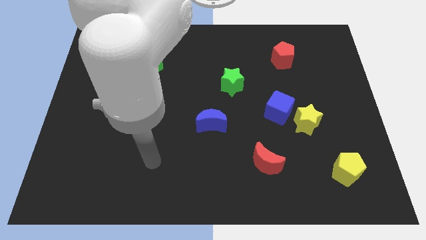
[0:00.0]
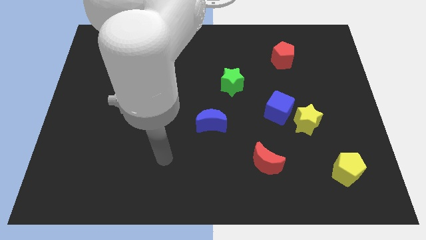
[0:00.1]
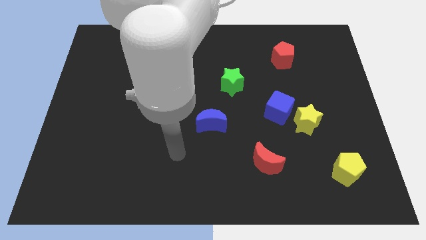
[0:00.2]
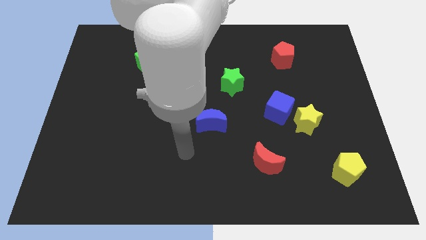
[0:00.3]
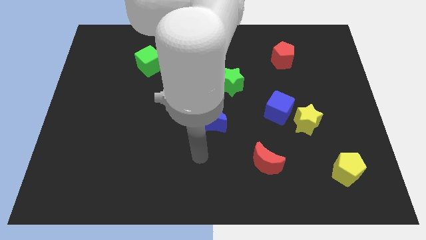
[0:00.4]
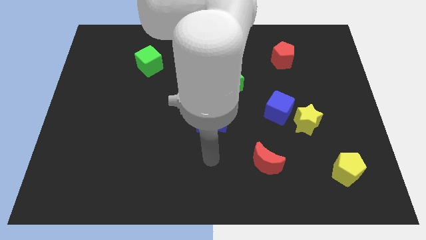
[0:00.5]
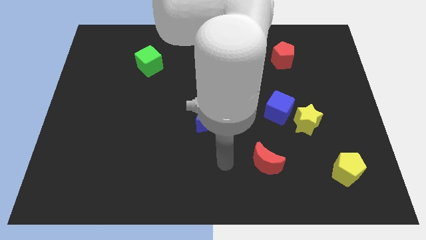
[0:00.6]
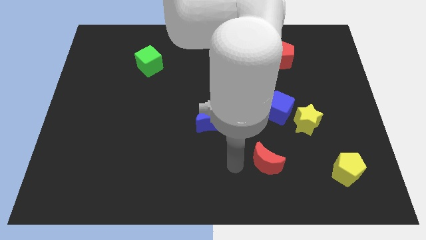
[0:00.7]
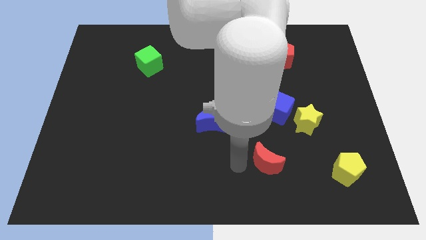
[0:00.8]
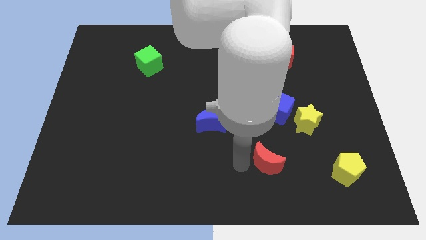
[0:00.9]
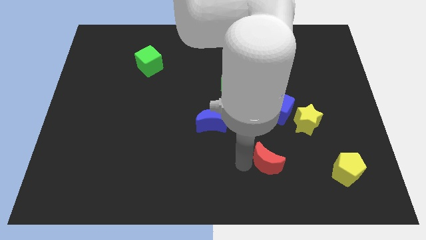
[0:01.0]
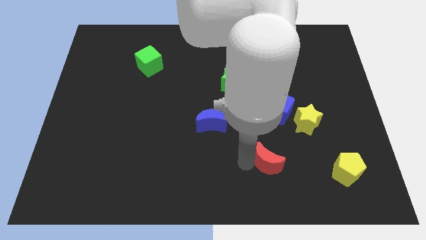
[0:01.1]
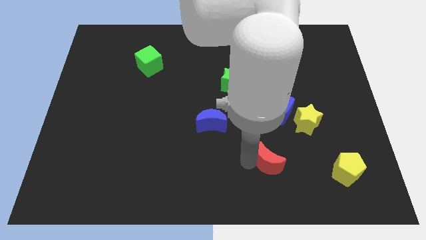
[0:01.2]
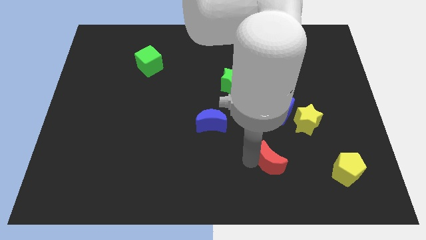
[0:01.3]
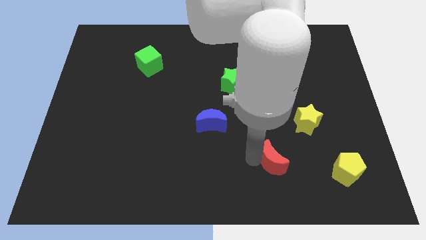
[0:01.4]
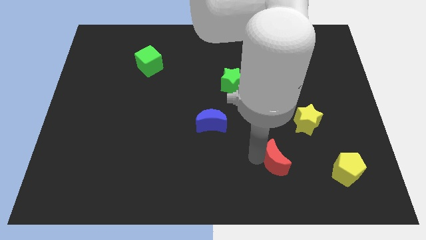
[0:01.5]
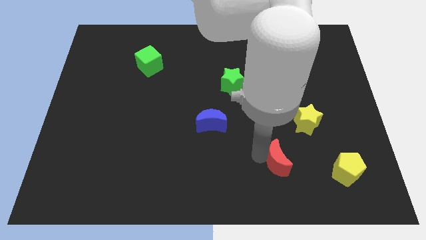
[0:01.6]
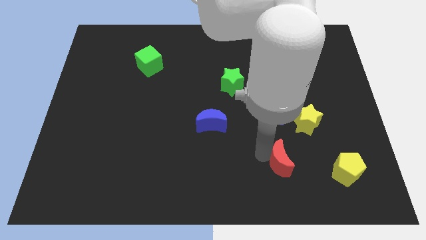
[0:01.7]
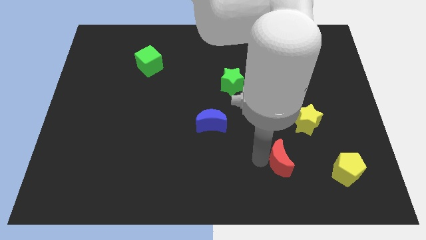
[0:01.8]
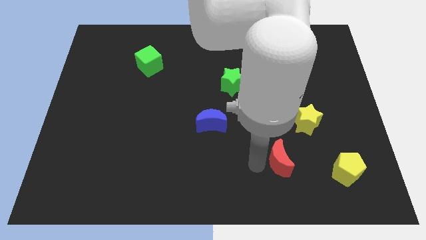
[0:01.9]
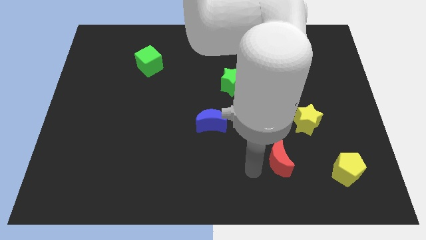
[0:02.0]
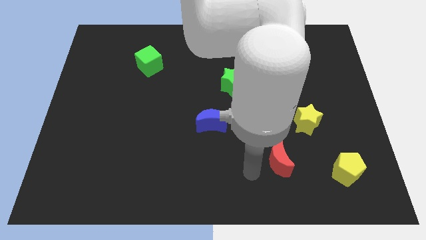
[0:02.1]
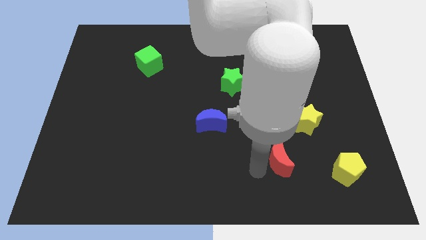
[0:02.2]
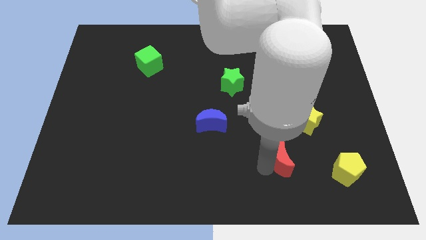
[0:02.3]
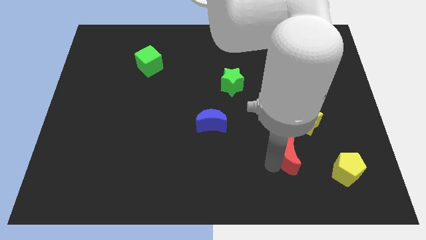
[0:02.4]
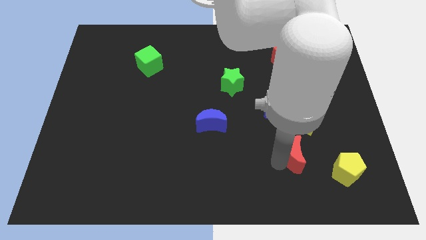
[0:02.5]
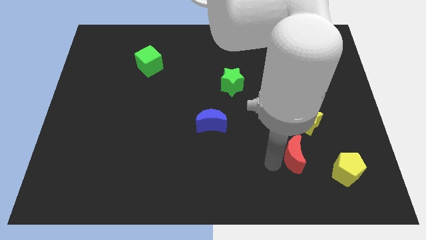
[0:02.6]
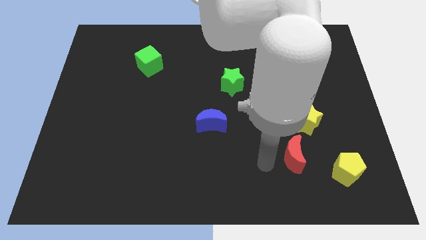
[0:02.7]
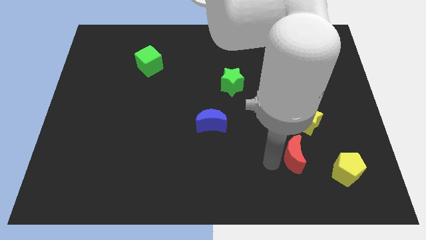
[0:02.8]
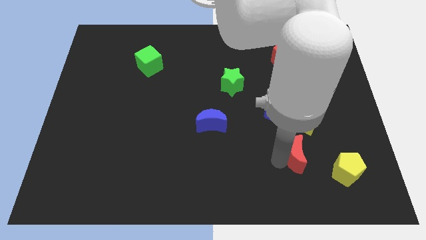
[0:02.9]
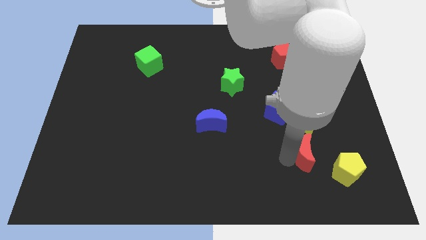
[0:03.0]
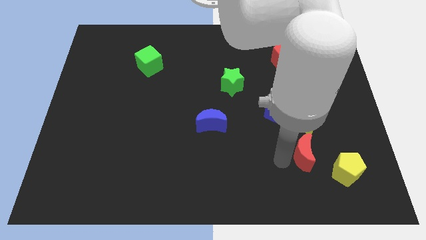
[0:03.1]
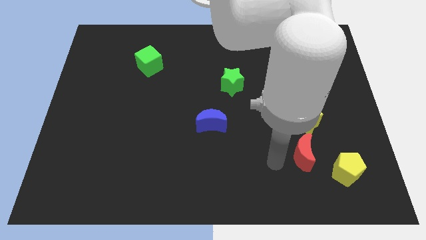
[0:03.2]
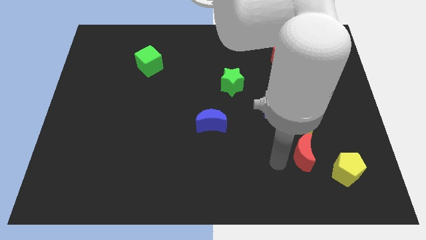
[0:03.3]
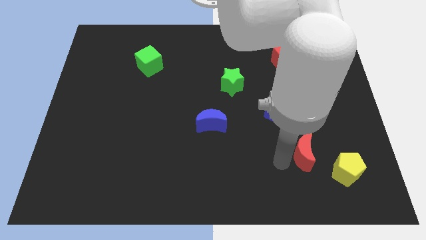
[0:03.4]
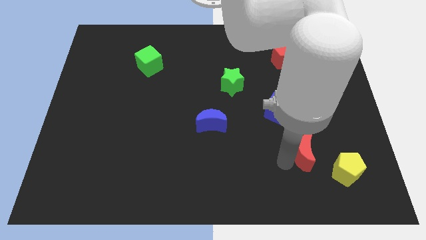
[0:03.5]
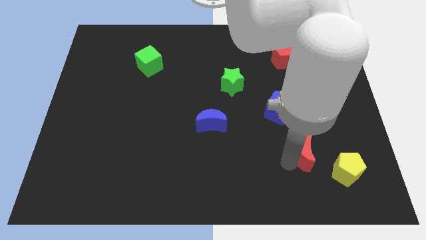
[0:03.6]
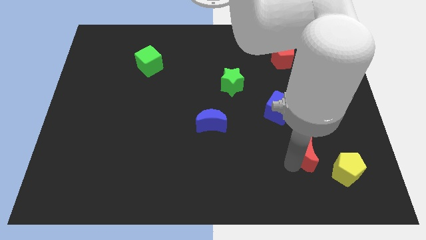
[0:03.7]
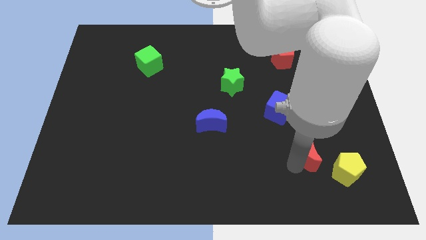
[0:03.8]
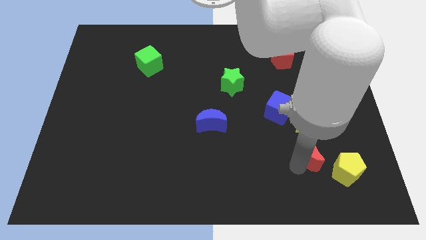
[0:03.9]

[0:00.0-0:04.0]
slide the red moon upwards and then to the right a little bit

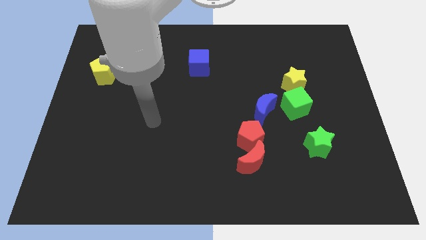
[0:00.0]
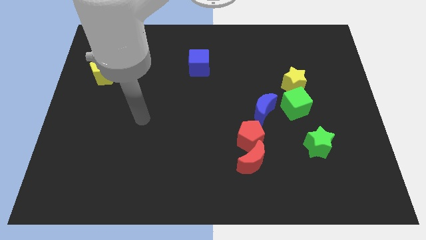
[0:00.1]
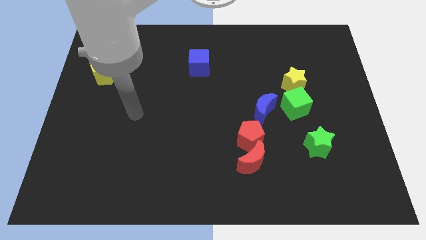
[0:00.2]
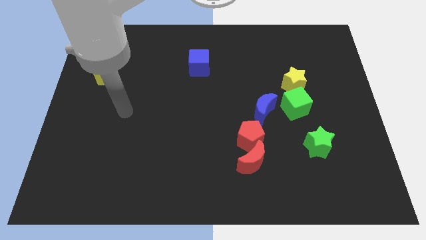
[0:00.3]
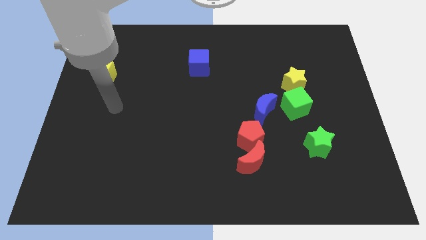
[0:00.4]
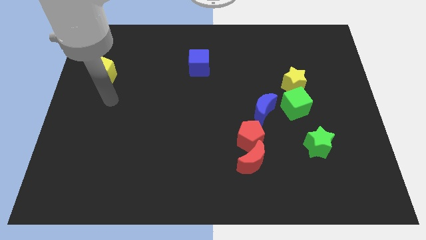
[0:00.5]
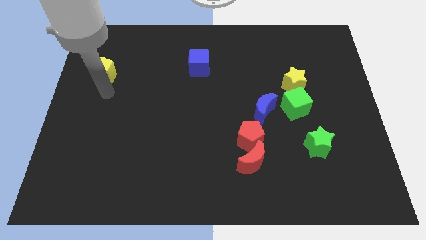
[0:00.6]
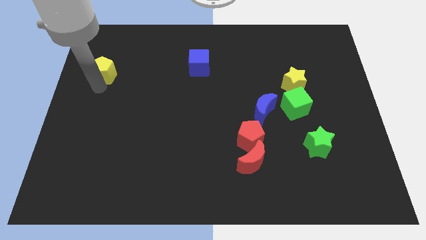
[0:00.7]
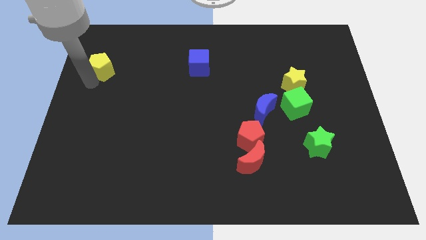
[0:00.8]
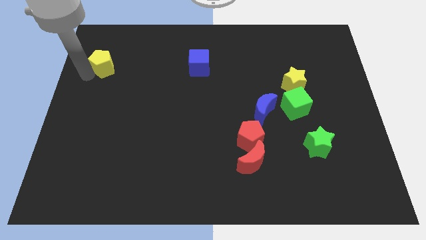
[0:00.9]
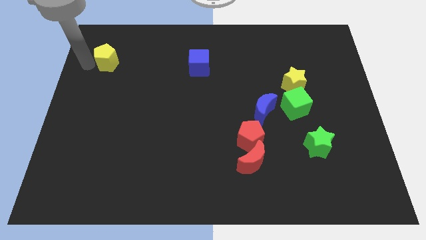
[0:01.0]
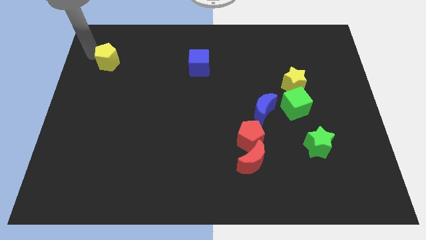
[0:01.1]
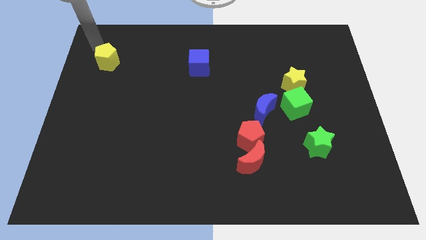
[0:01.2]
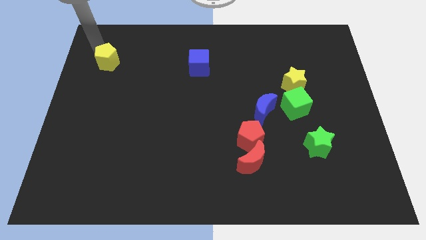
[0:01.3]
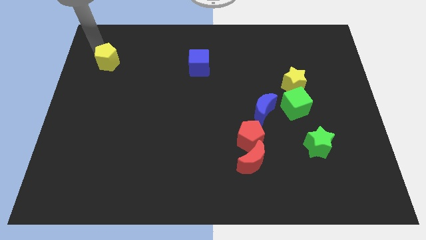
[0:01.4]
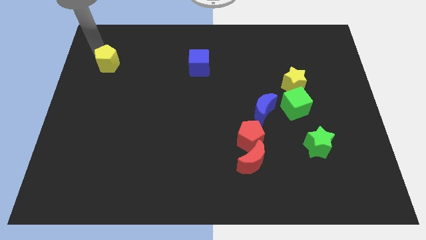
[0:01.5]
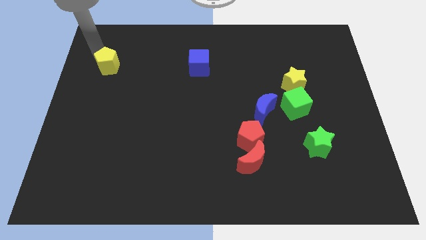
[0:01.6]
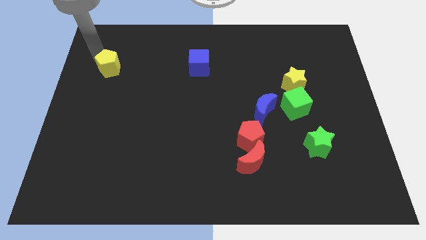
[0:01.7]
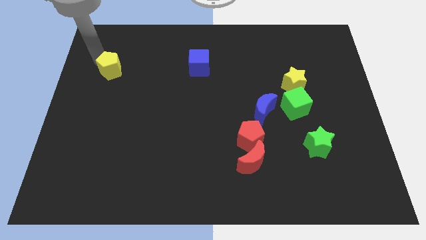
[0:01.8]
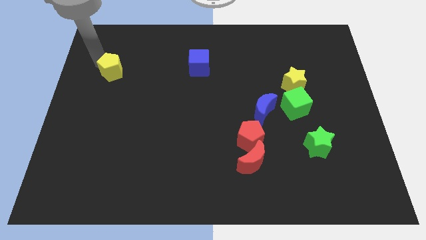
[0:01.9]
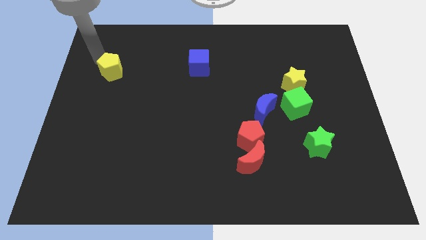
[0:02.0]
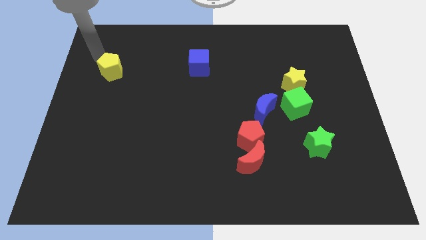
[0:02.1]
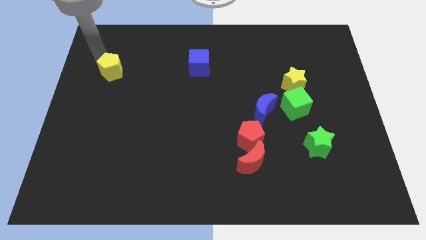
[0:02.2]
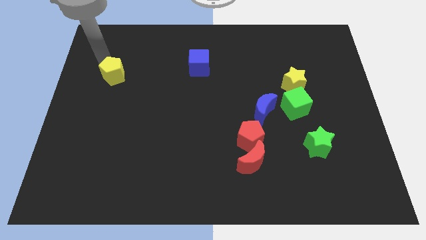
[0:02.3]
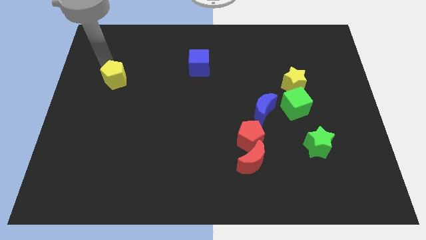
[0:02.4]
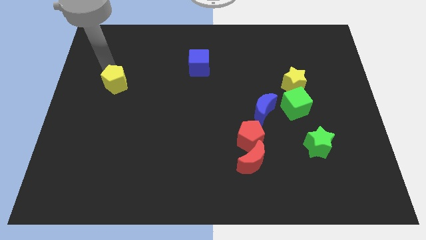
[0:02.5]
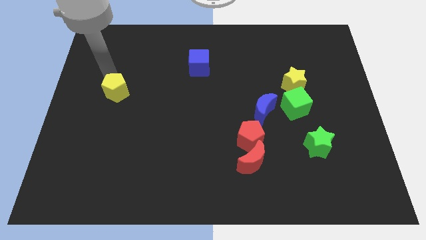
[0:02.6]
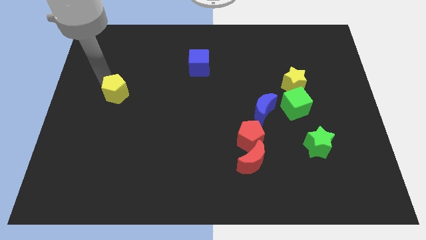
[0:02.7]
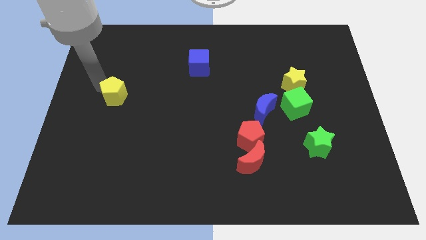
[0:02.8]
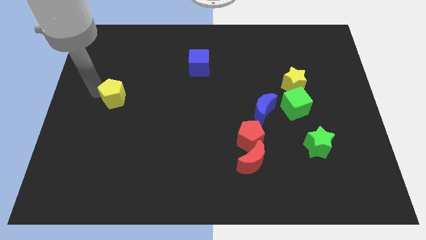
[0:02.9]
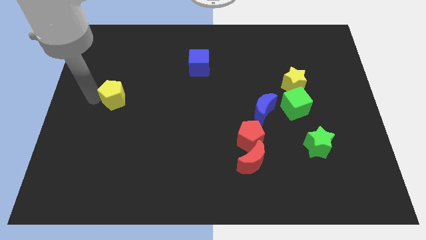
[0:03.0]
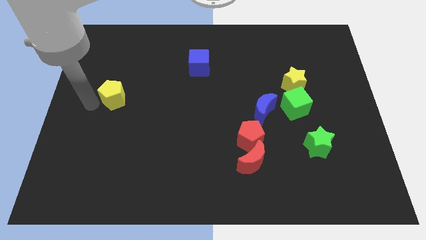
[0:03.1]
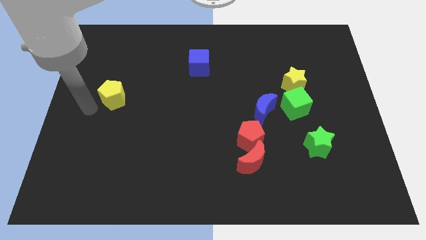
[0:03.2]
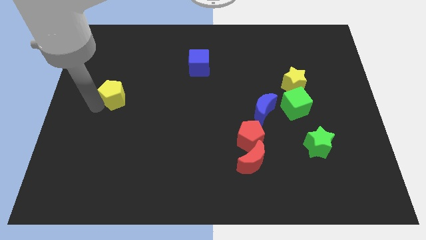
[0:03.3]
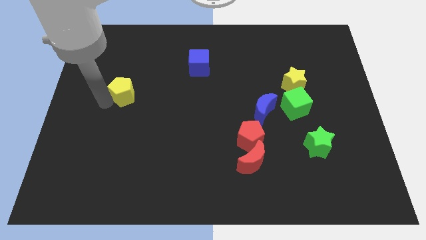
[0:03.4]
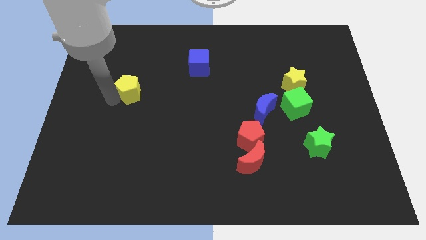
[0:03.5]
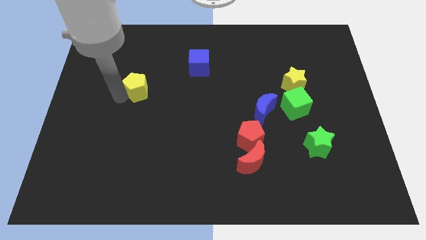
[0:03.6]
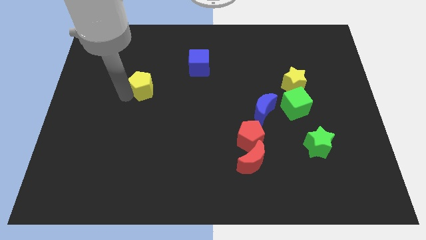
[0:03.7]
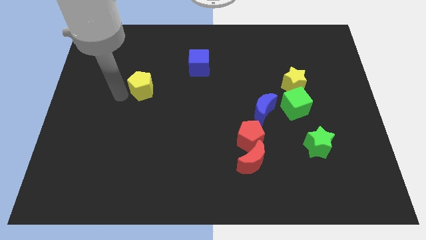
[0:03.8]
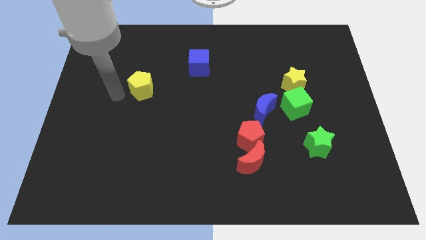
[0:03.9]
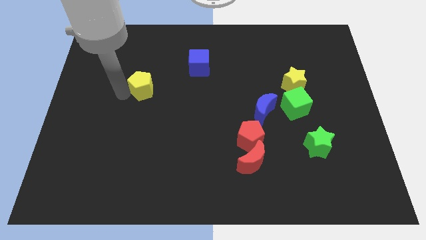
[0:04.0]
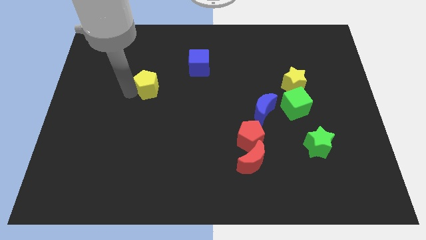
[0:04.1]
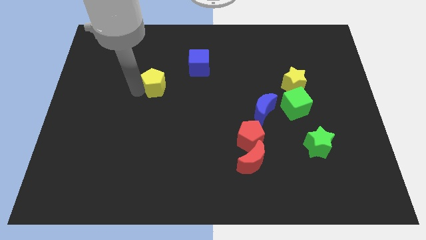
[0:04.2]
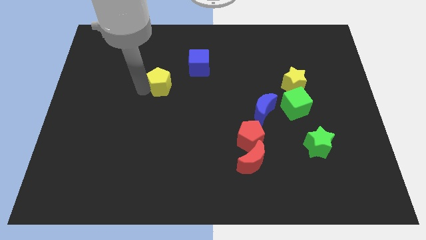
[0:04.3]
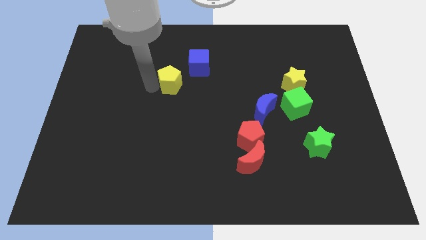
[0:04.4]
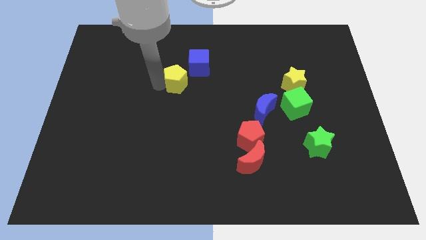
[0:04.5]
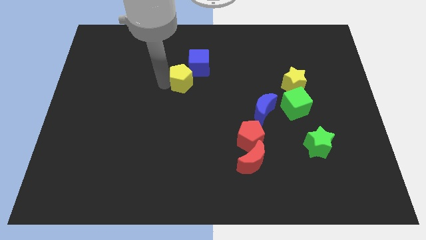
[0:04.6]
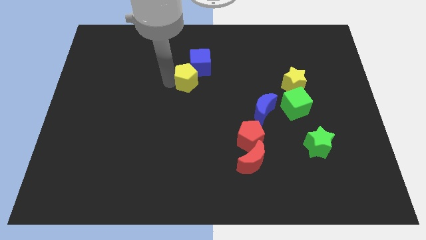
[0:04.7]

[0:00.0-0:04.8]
move the yellow pentagon to the right
